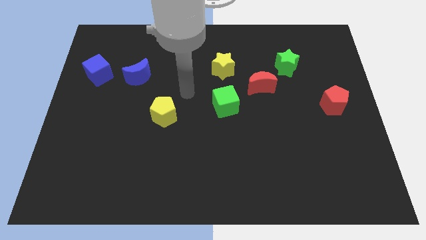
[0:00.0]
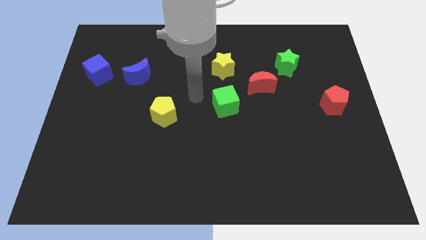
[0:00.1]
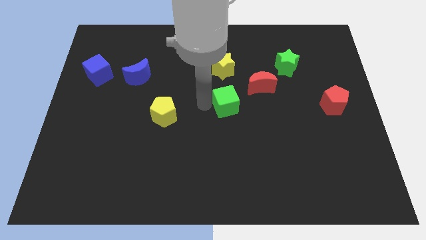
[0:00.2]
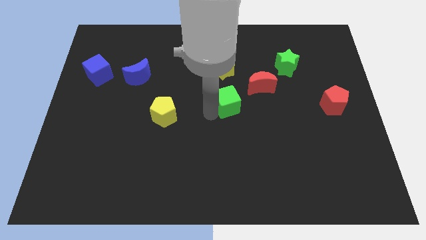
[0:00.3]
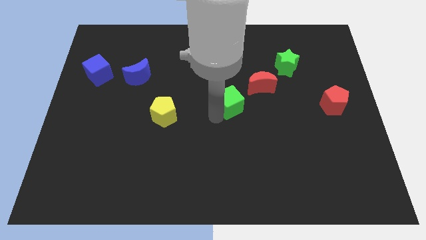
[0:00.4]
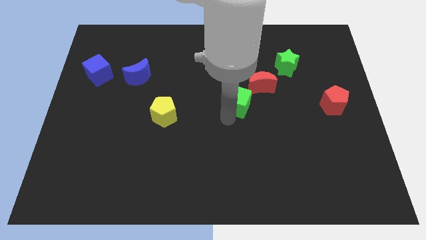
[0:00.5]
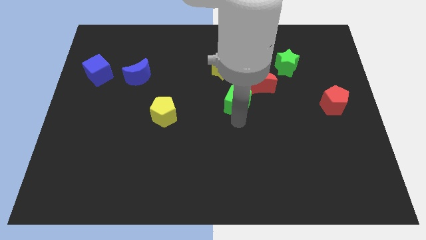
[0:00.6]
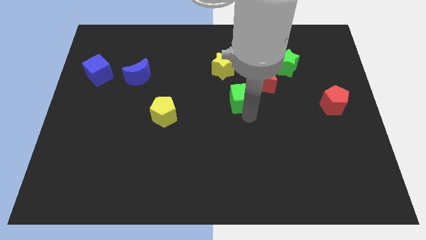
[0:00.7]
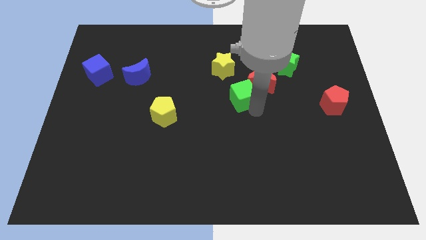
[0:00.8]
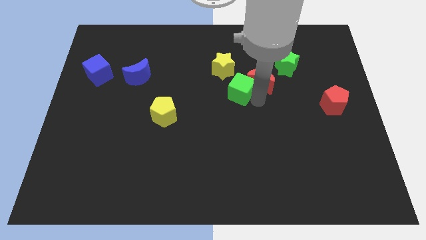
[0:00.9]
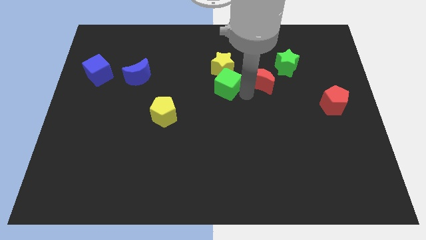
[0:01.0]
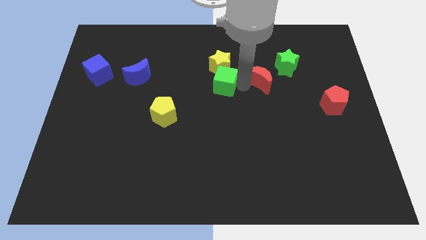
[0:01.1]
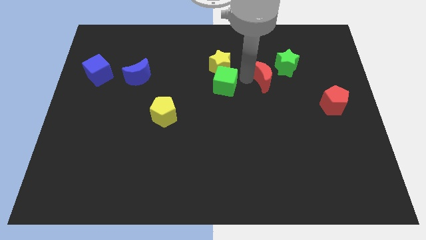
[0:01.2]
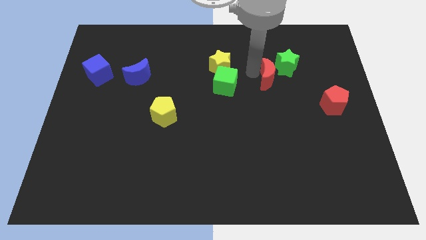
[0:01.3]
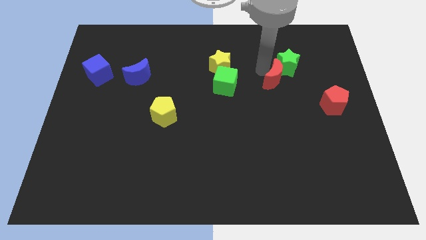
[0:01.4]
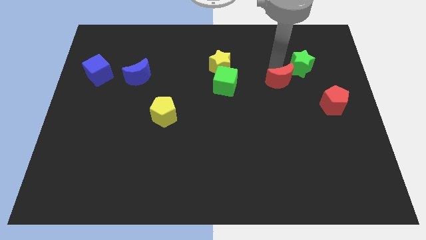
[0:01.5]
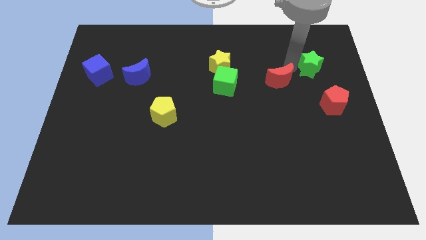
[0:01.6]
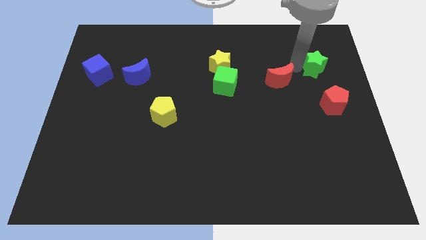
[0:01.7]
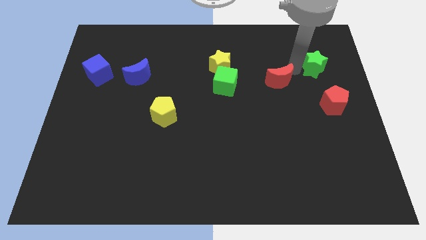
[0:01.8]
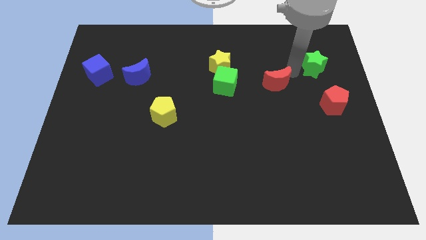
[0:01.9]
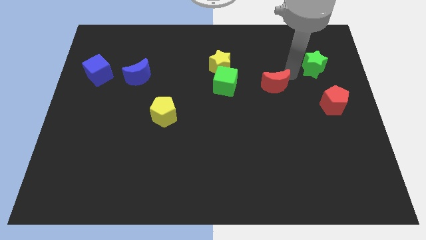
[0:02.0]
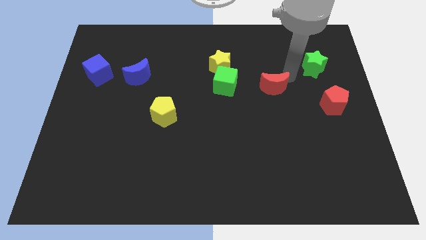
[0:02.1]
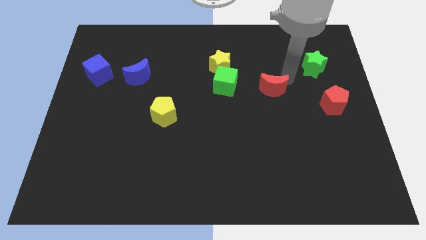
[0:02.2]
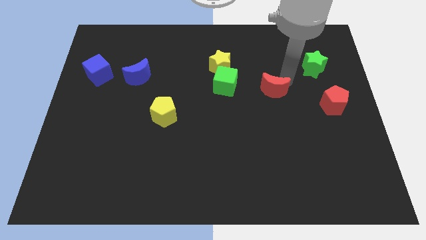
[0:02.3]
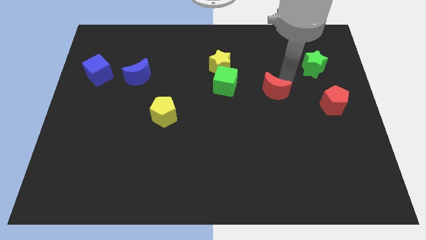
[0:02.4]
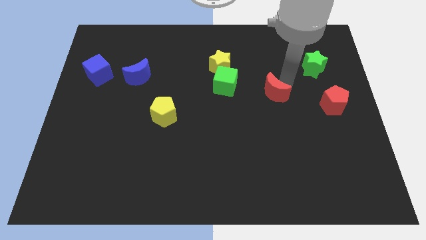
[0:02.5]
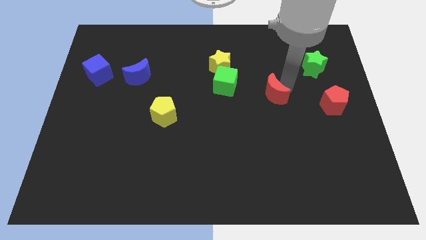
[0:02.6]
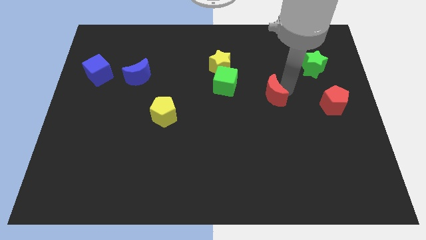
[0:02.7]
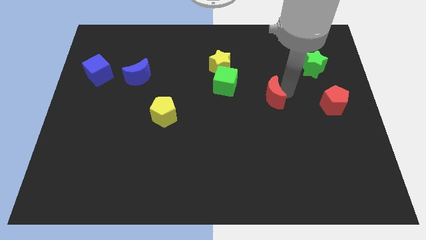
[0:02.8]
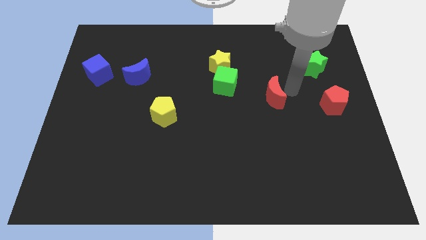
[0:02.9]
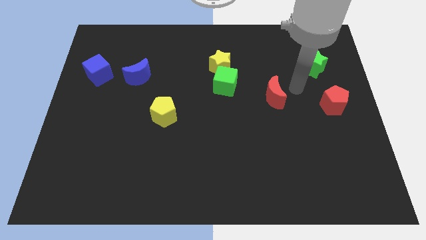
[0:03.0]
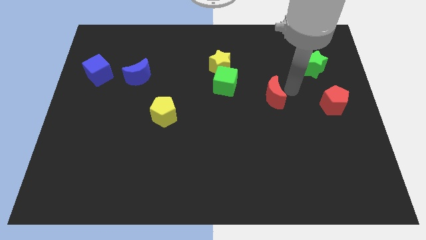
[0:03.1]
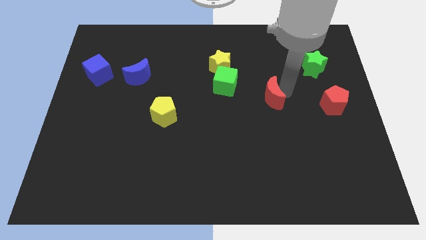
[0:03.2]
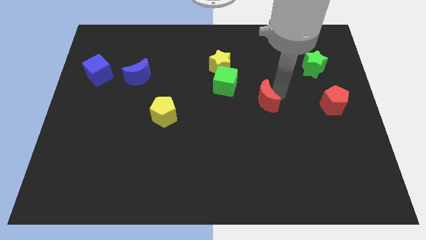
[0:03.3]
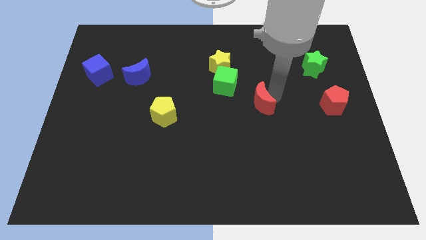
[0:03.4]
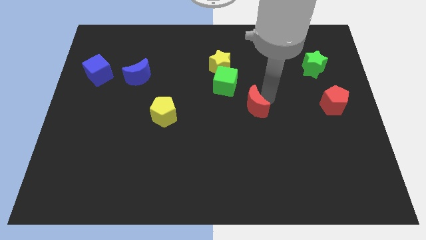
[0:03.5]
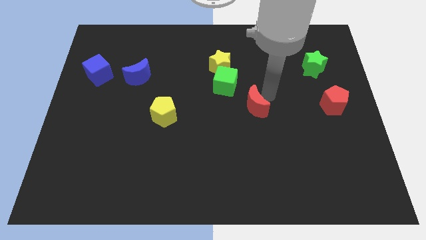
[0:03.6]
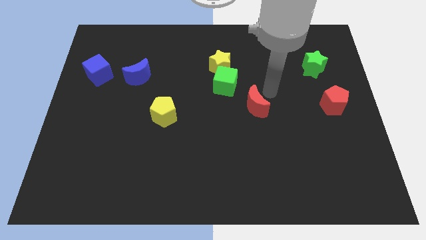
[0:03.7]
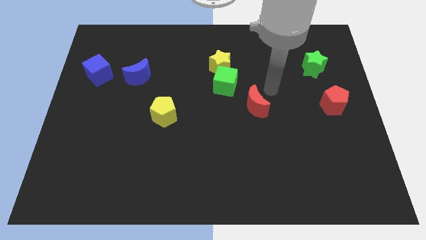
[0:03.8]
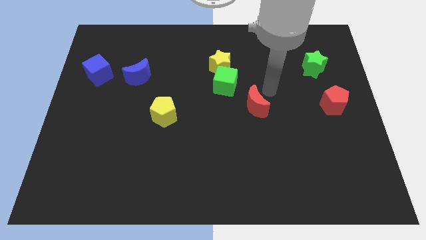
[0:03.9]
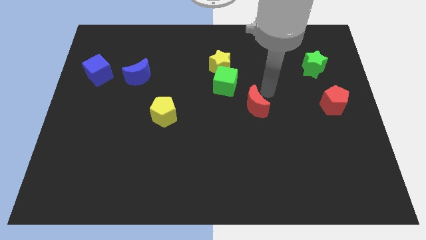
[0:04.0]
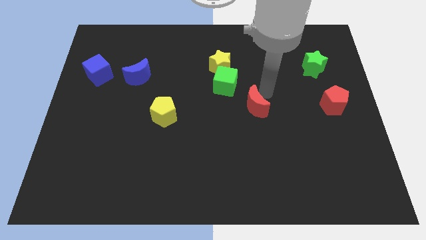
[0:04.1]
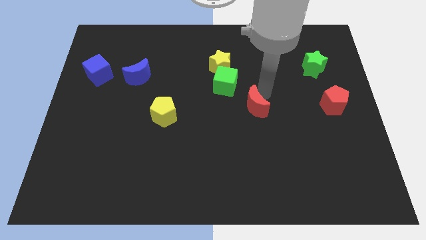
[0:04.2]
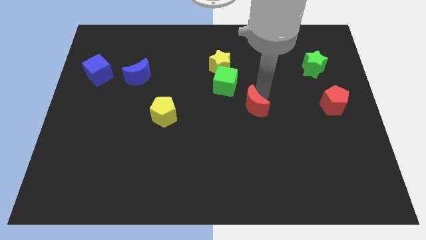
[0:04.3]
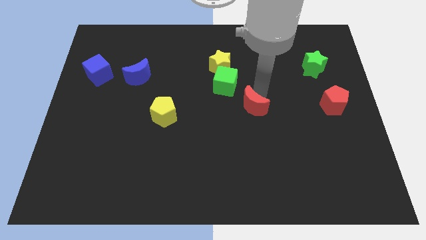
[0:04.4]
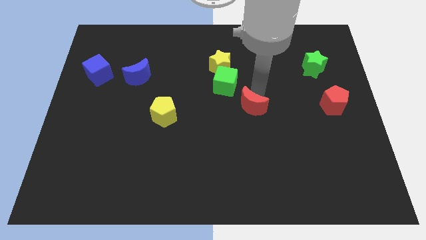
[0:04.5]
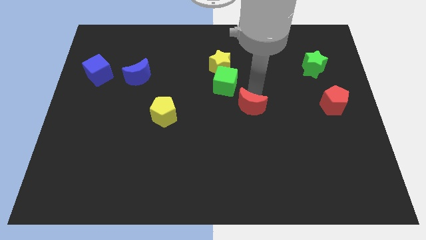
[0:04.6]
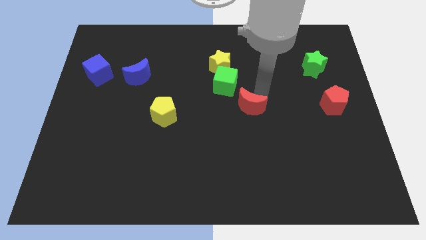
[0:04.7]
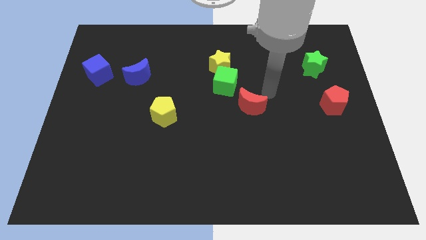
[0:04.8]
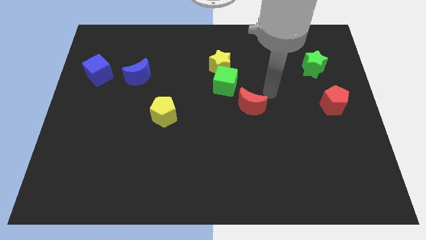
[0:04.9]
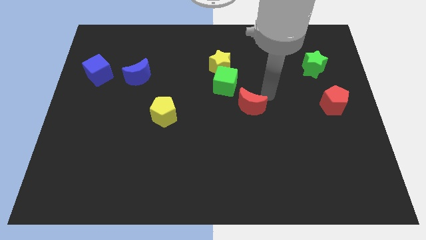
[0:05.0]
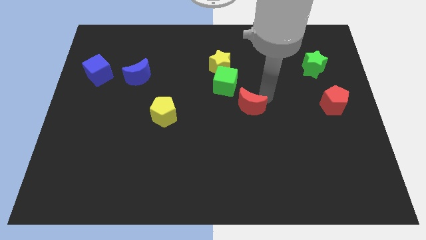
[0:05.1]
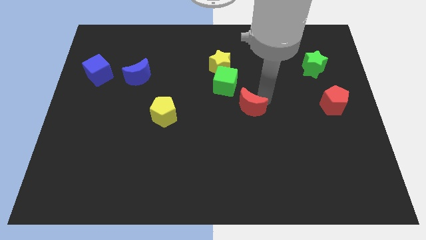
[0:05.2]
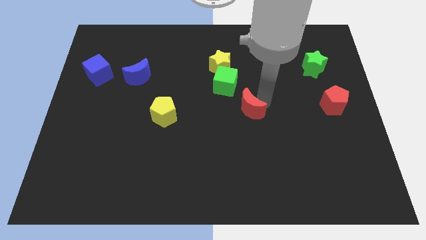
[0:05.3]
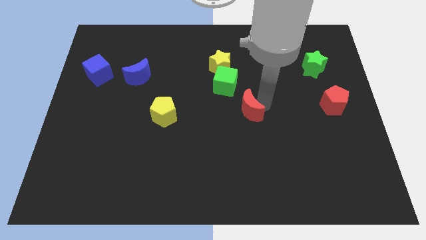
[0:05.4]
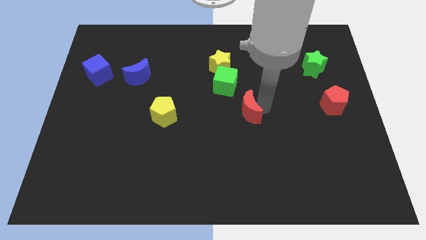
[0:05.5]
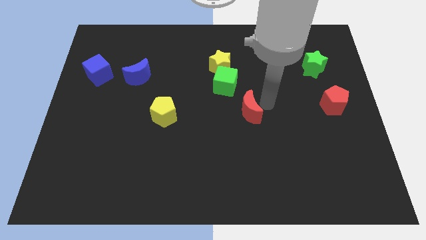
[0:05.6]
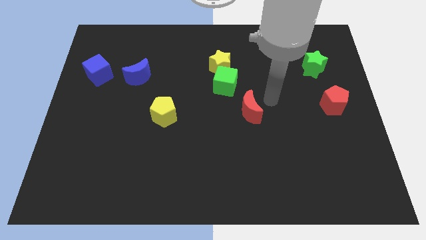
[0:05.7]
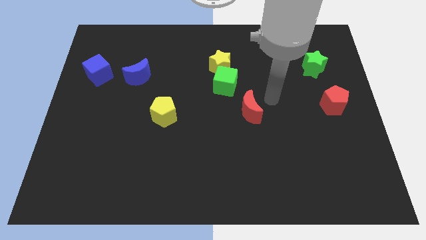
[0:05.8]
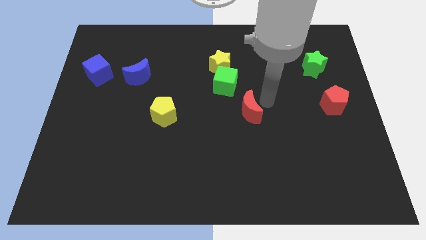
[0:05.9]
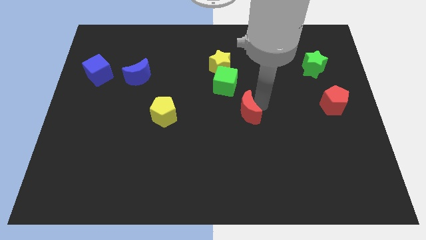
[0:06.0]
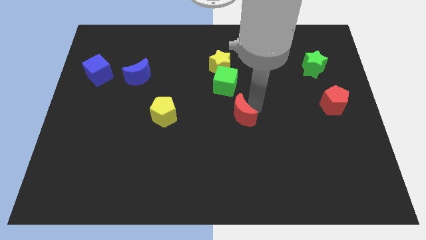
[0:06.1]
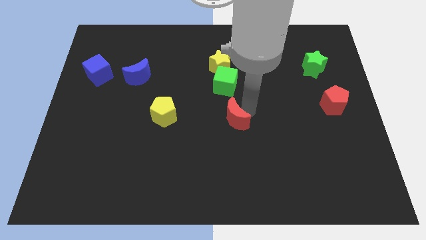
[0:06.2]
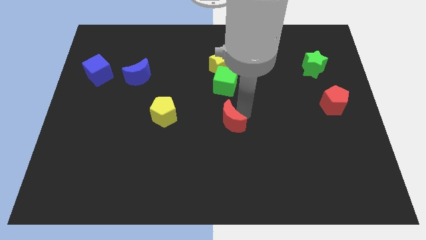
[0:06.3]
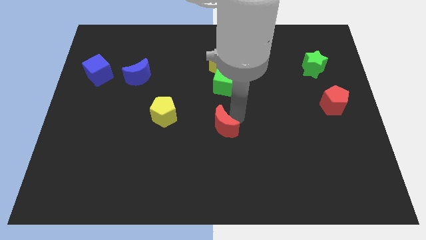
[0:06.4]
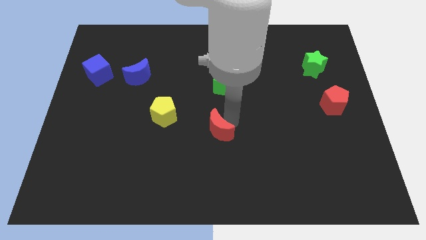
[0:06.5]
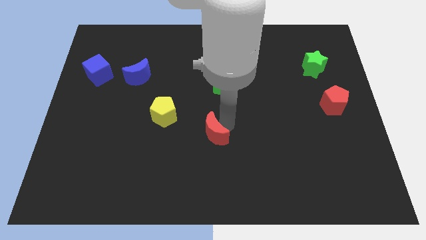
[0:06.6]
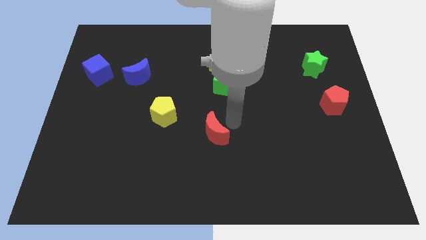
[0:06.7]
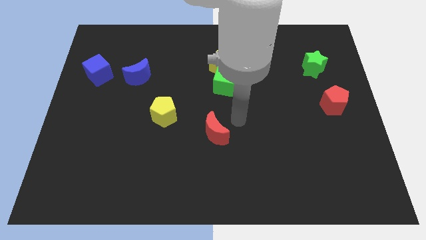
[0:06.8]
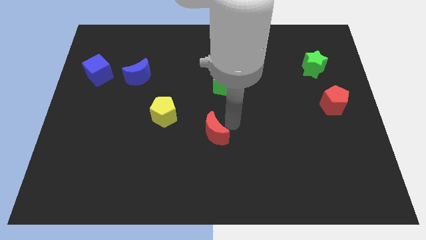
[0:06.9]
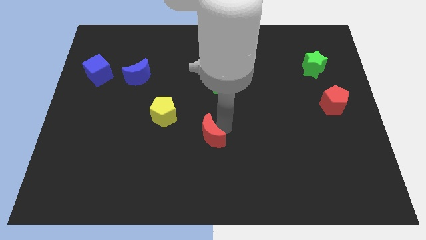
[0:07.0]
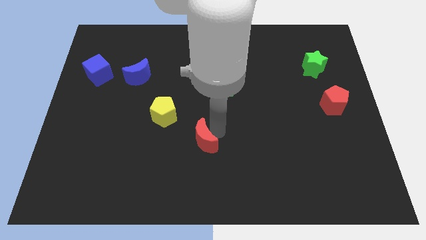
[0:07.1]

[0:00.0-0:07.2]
move the red moon downwards and then left

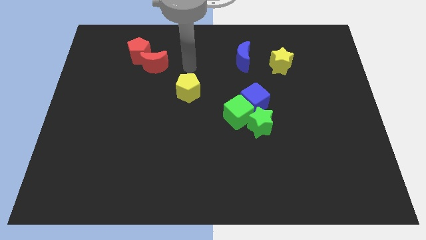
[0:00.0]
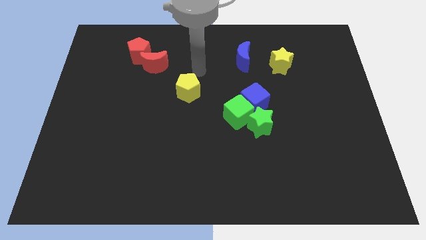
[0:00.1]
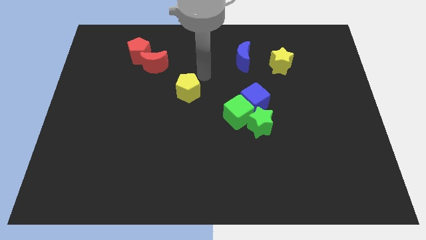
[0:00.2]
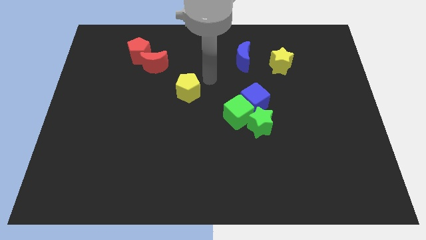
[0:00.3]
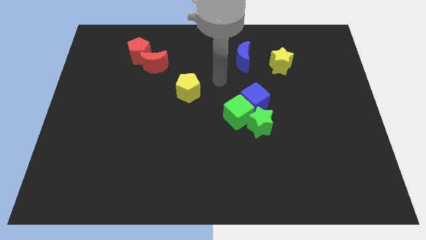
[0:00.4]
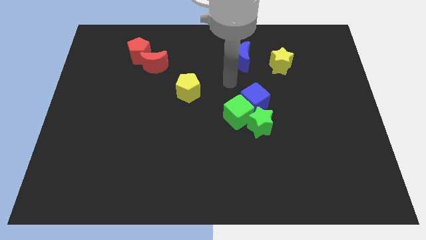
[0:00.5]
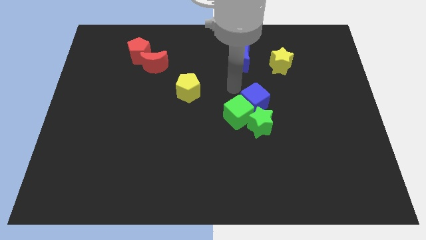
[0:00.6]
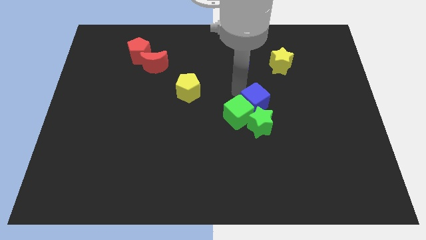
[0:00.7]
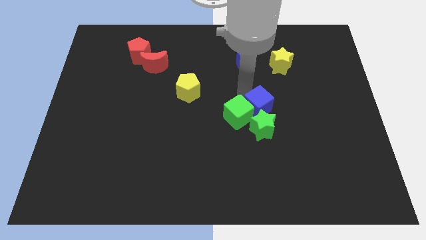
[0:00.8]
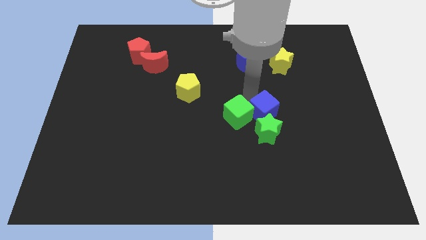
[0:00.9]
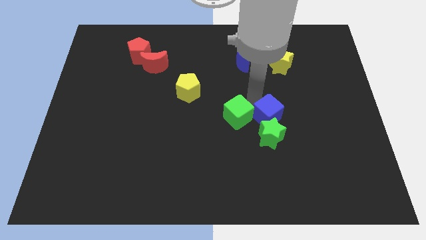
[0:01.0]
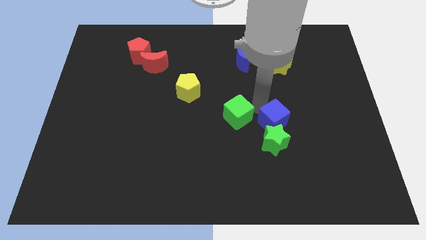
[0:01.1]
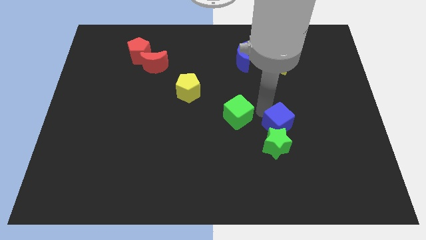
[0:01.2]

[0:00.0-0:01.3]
move the blue cube slightly down and then right
